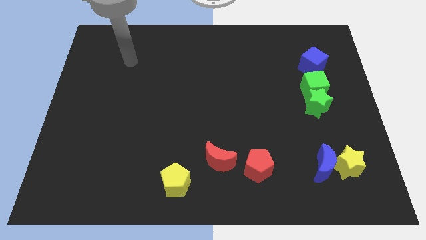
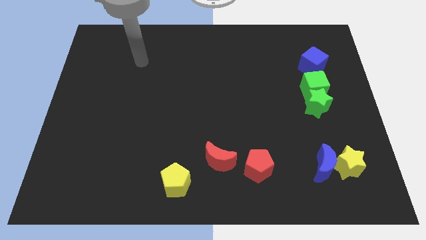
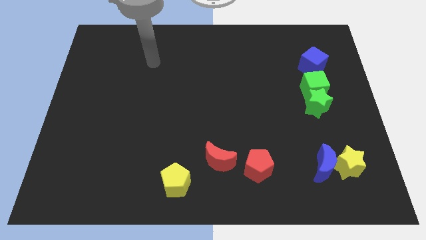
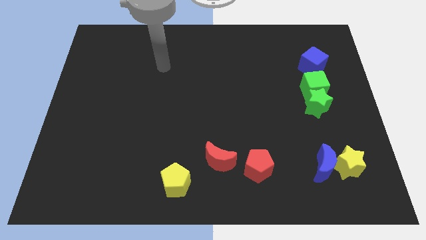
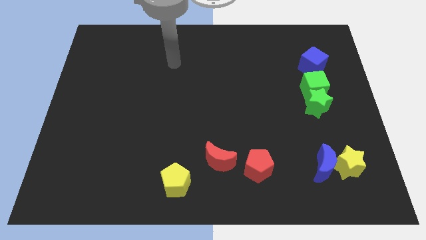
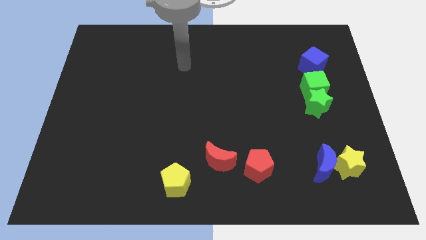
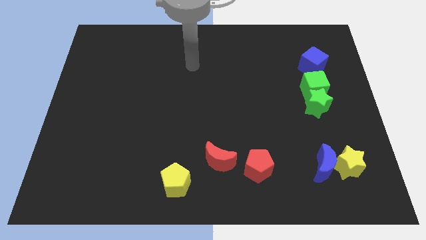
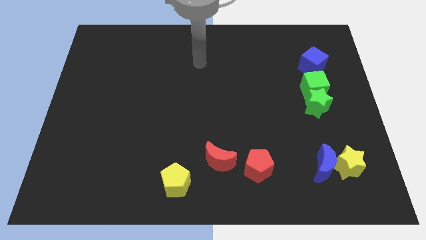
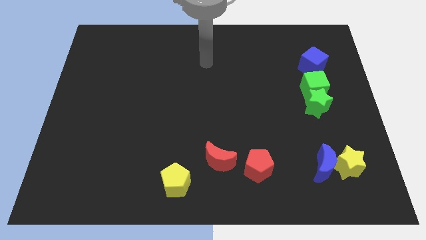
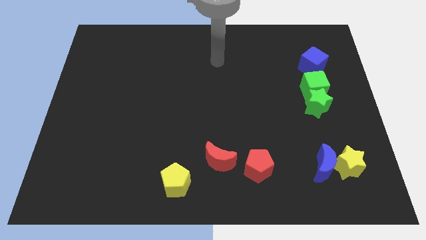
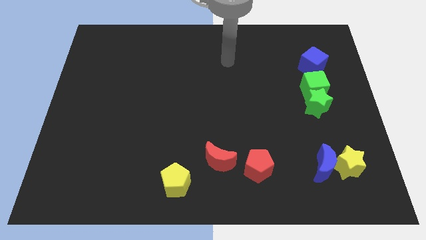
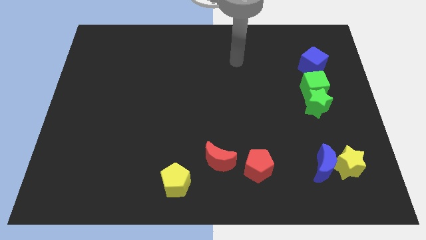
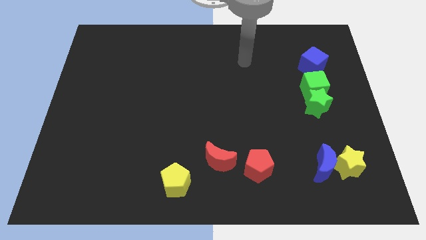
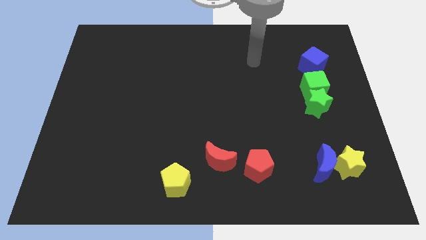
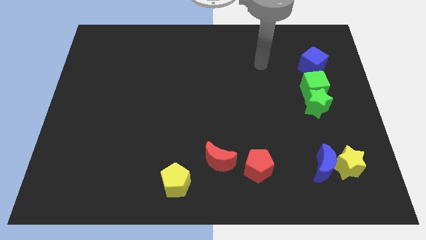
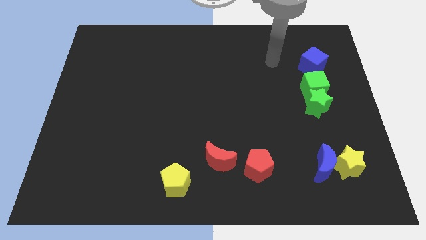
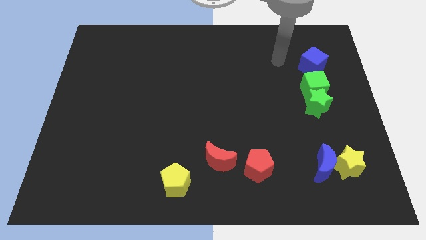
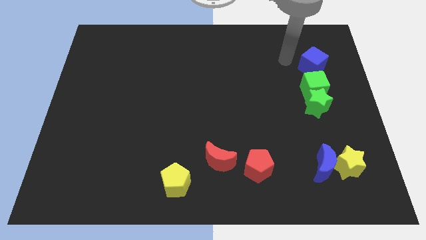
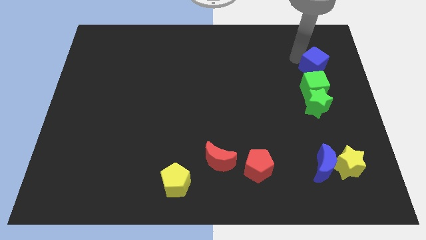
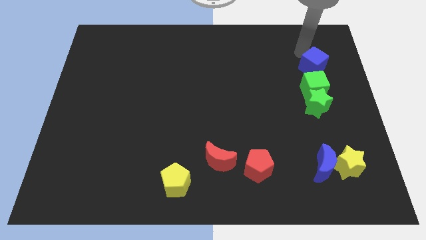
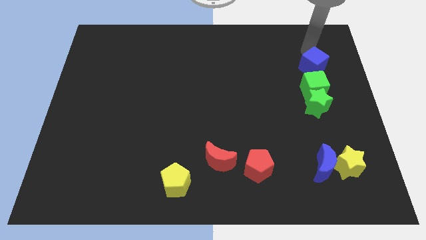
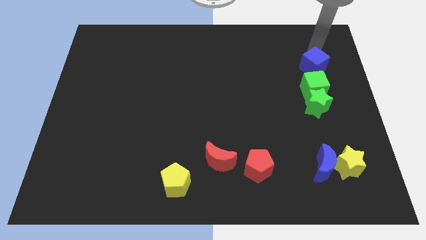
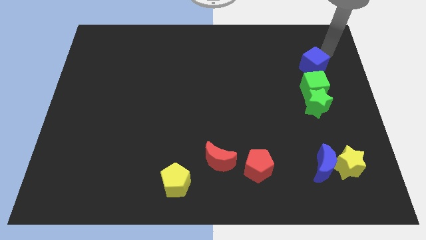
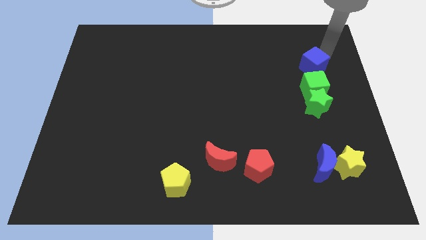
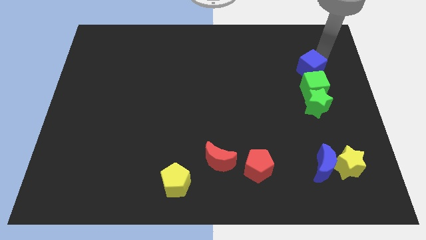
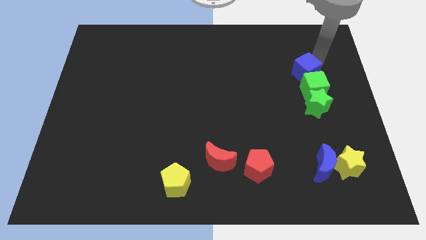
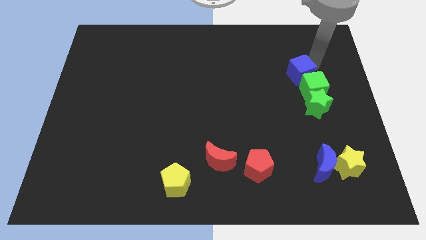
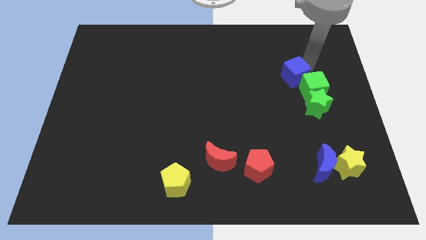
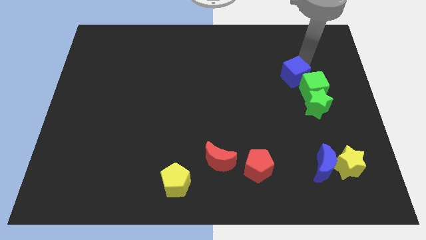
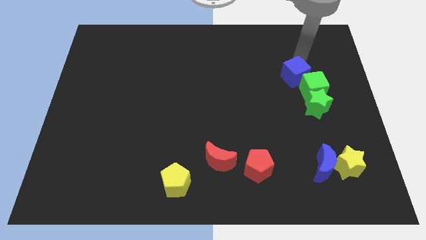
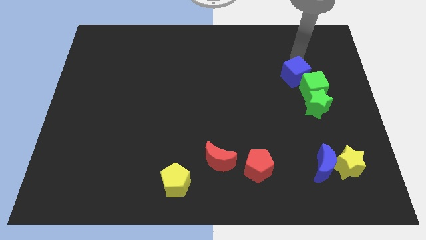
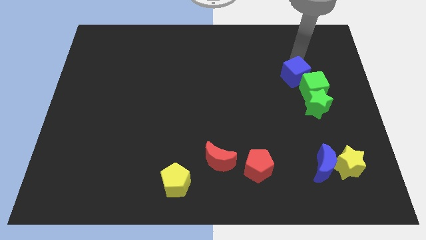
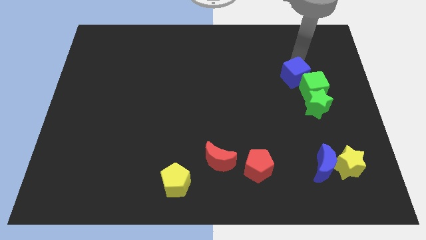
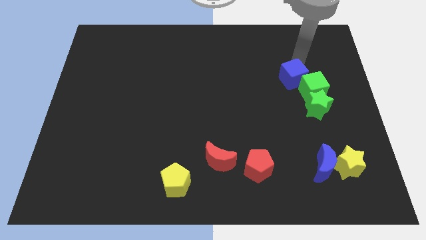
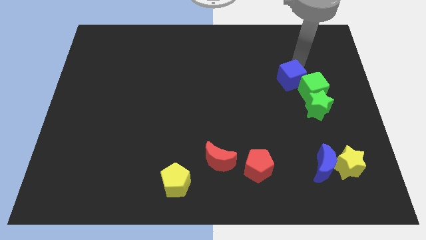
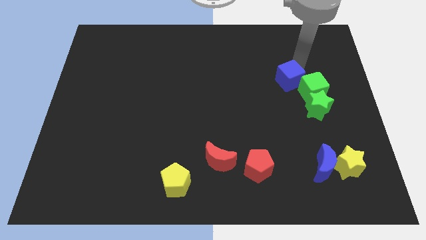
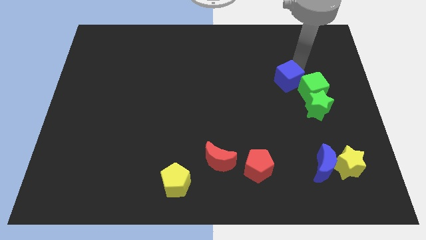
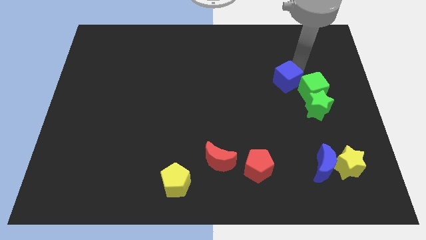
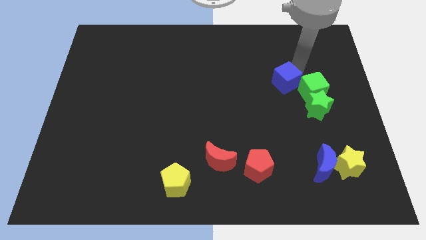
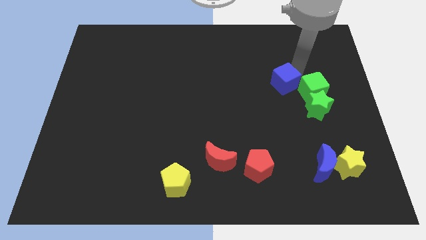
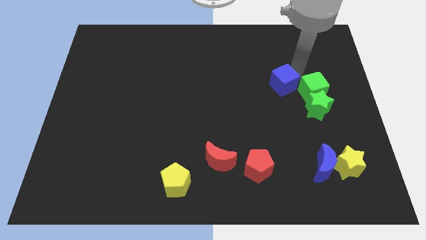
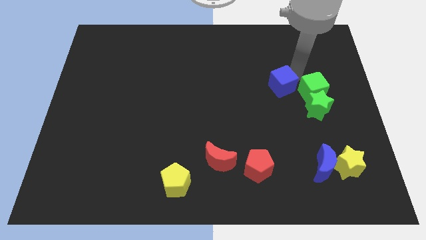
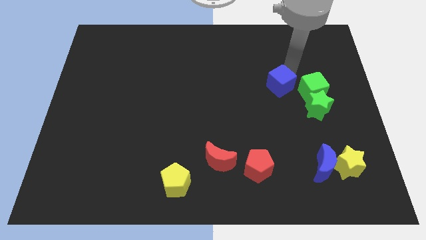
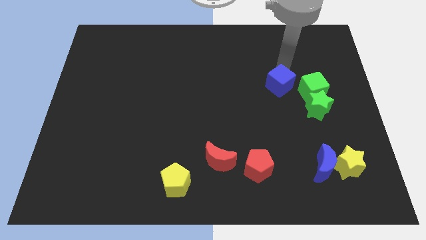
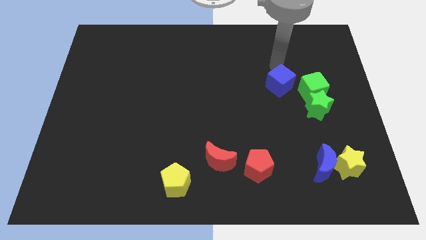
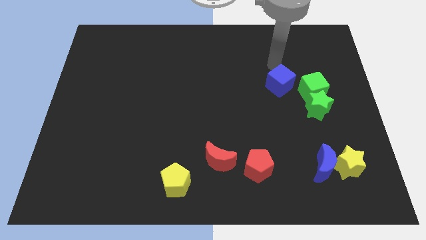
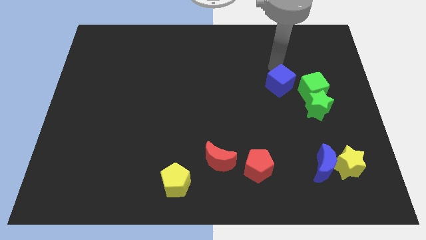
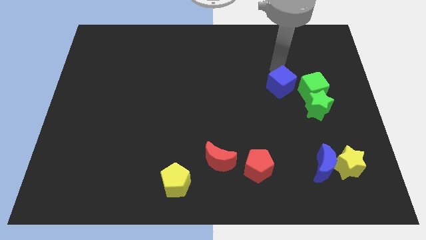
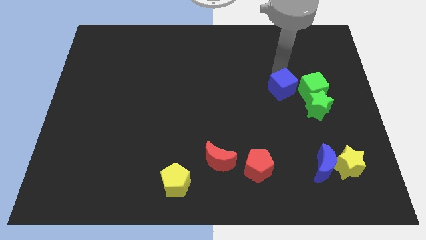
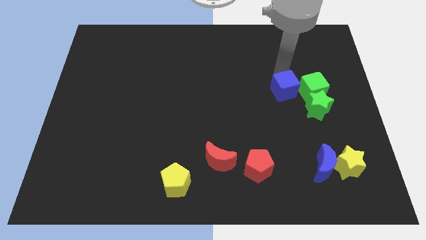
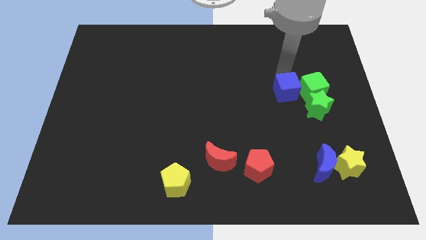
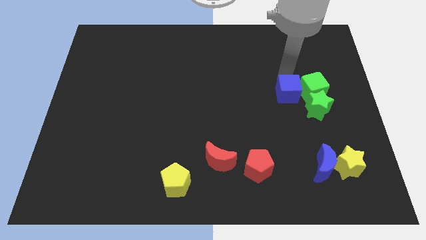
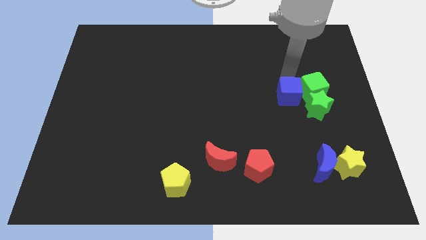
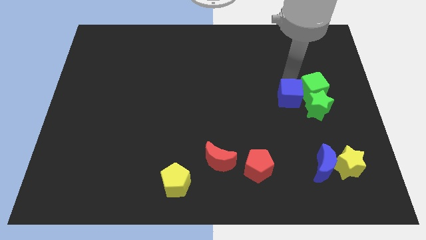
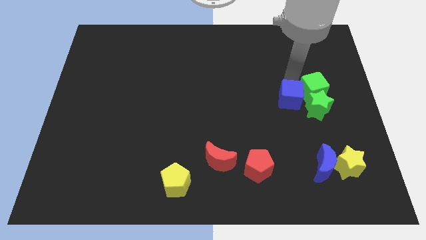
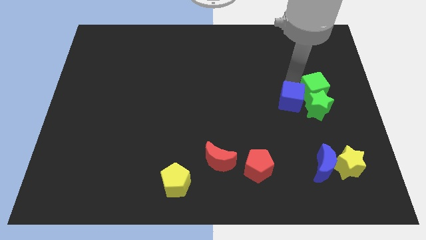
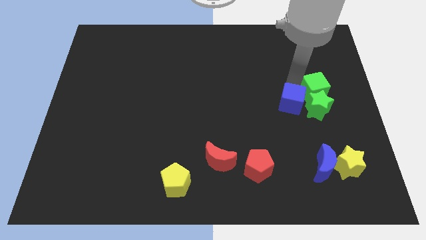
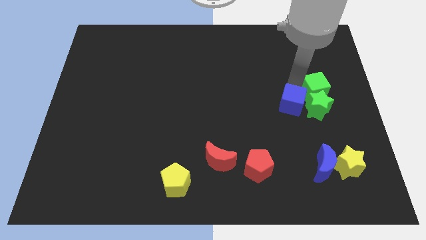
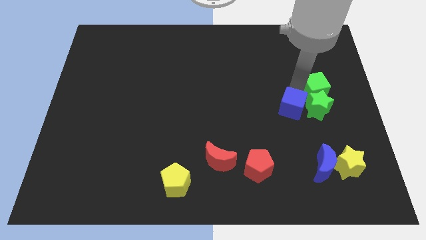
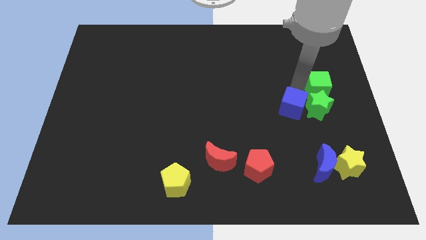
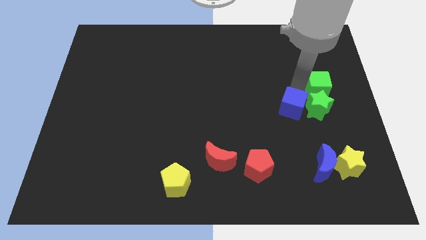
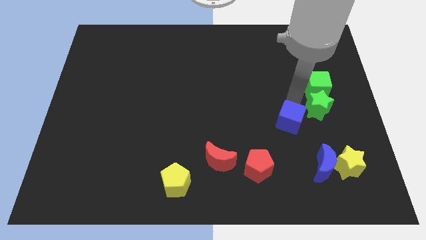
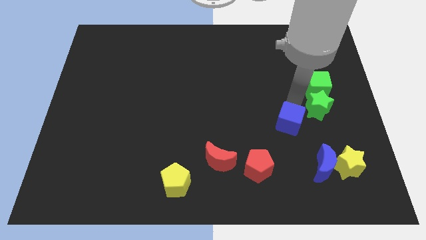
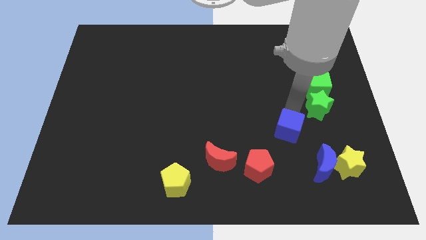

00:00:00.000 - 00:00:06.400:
push the blue cube diagonally up and to the right of the red pentagon

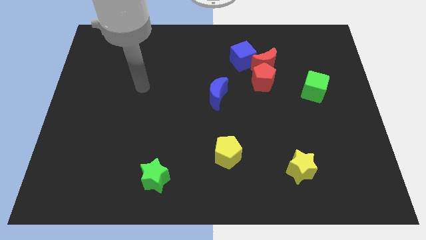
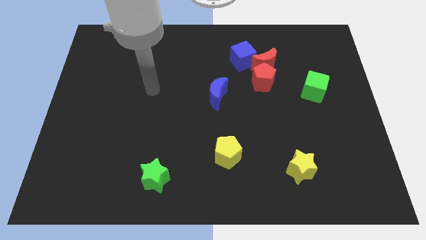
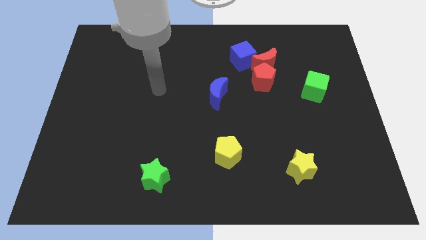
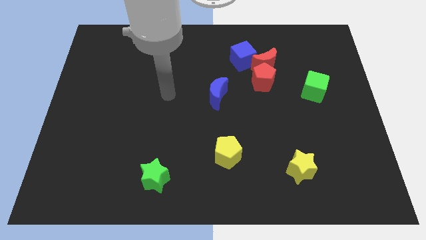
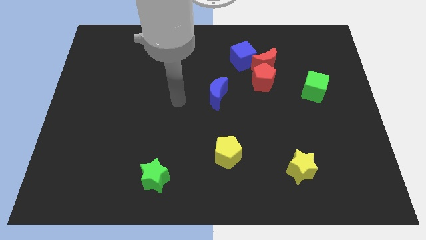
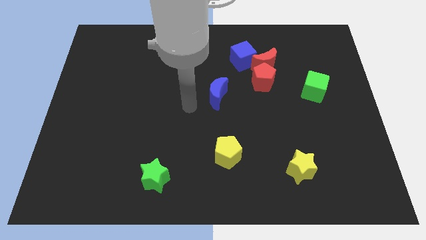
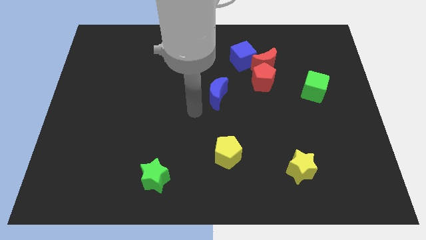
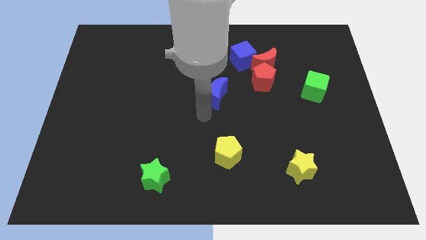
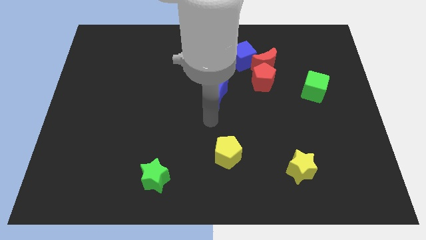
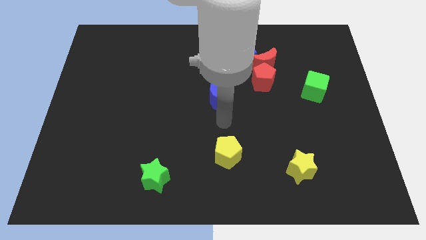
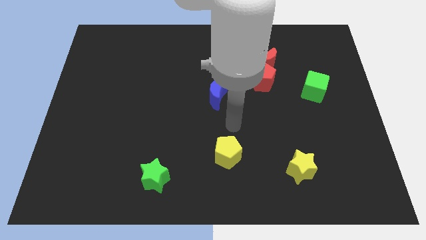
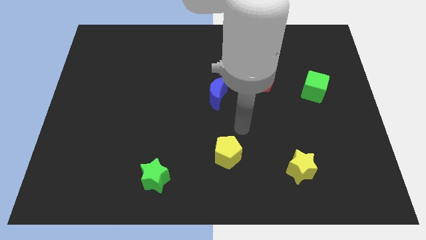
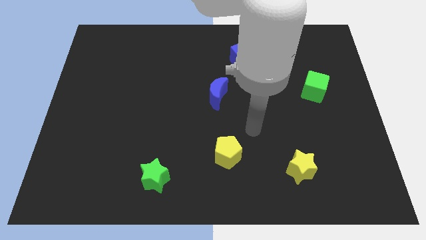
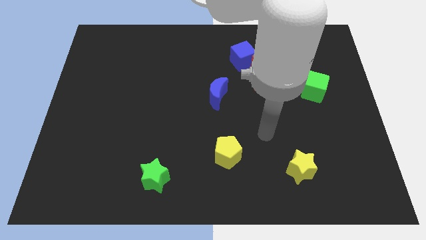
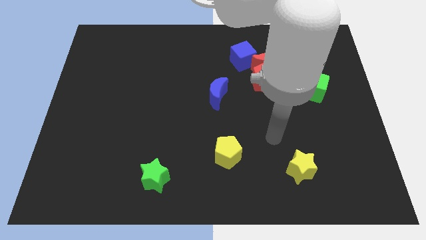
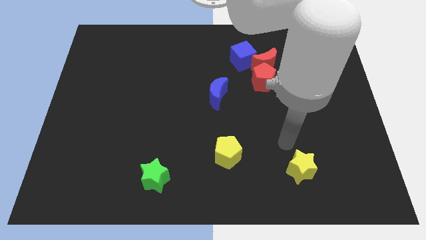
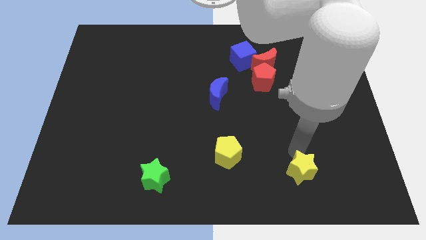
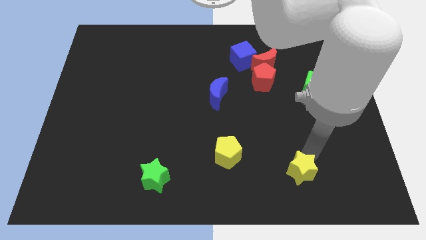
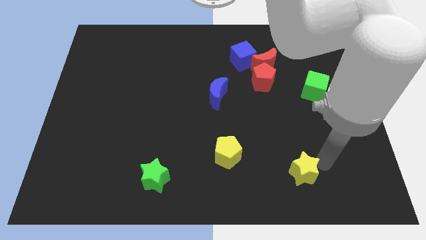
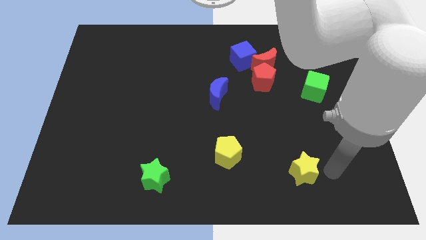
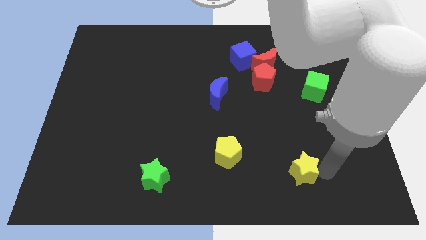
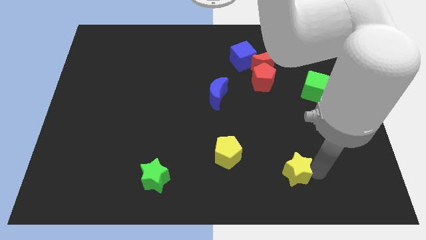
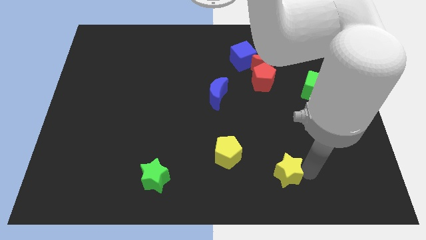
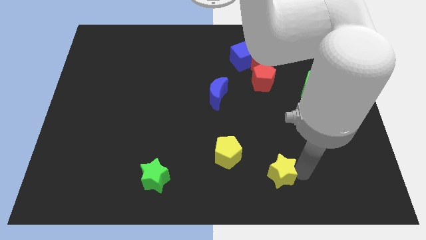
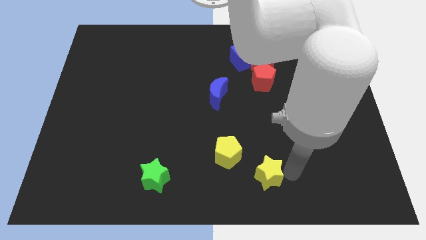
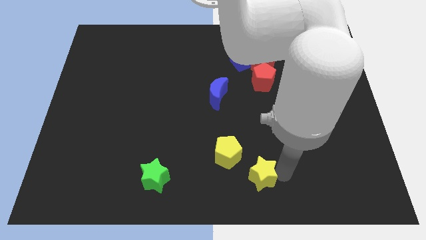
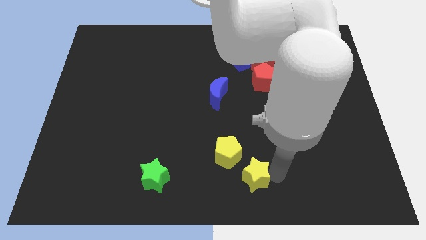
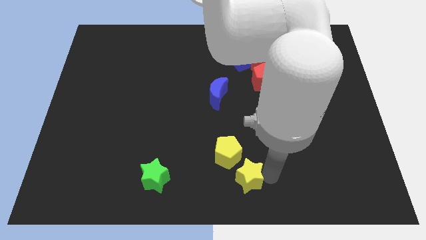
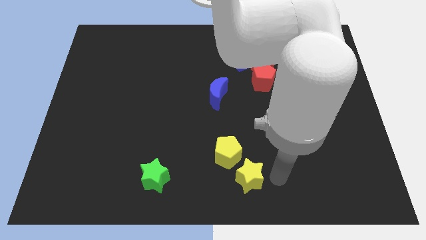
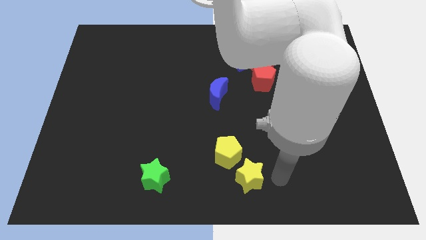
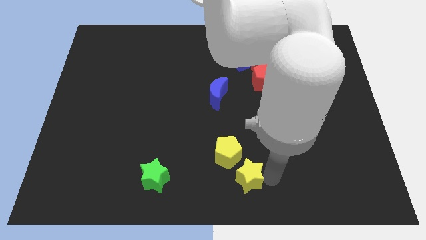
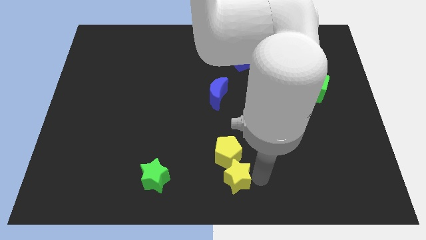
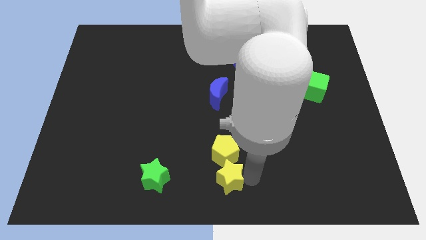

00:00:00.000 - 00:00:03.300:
move the yellow star to the bottom left side of the yellow pentagon
